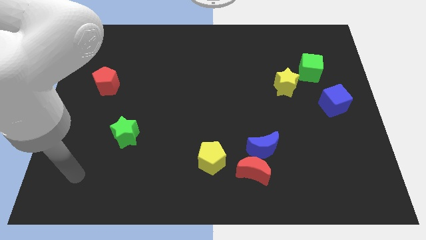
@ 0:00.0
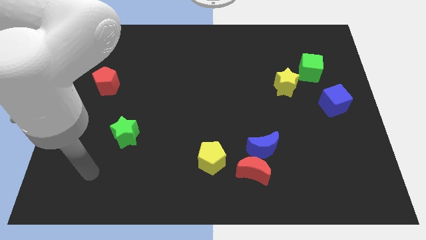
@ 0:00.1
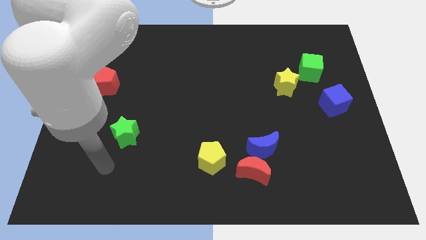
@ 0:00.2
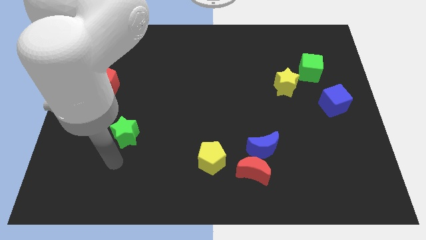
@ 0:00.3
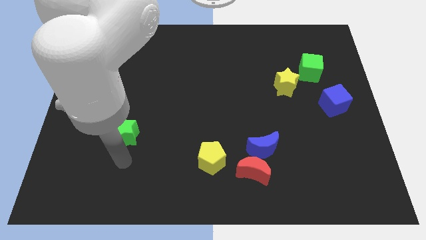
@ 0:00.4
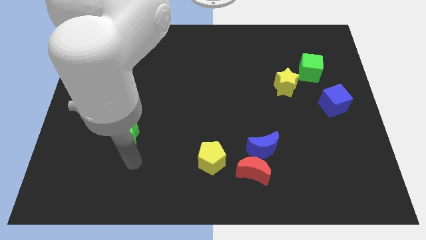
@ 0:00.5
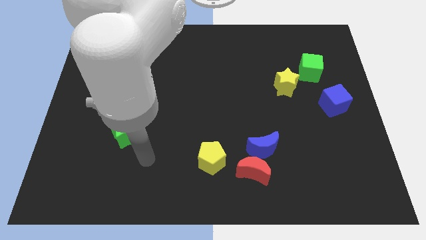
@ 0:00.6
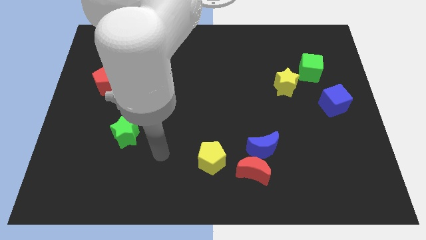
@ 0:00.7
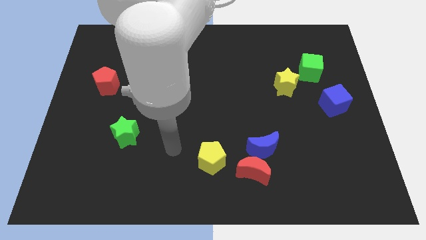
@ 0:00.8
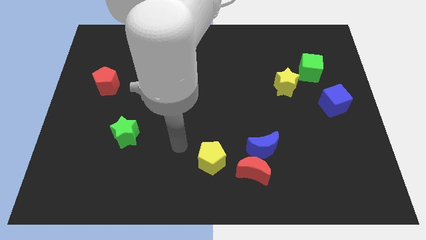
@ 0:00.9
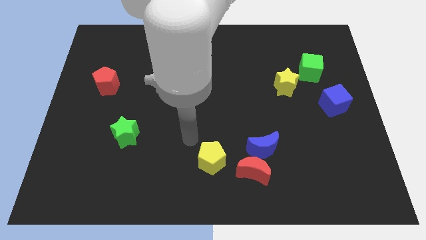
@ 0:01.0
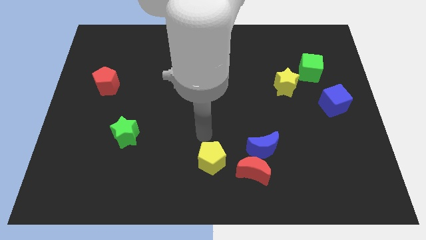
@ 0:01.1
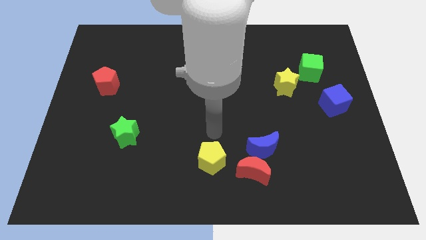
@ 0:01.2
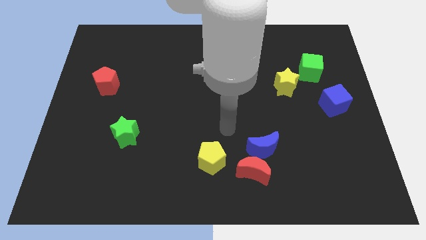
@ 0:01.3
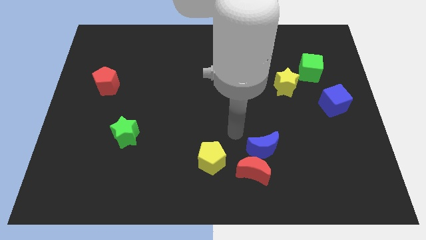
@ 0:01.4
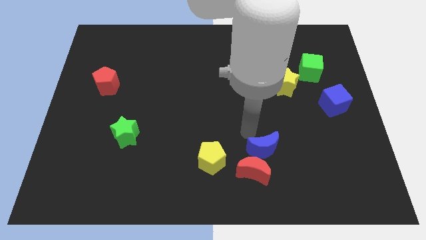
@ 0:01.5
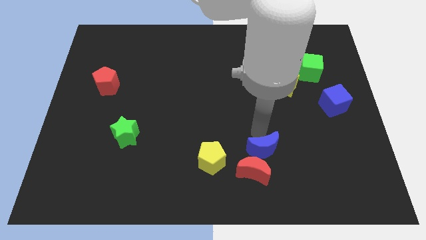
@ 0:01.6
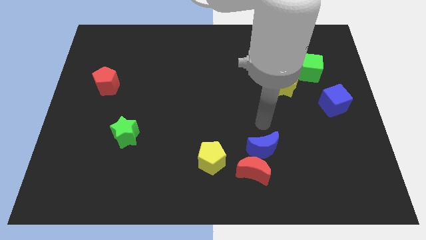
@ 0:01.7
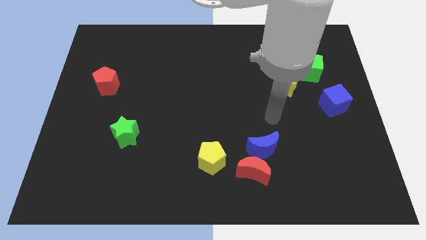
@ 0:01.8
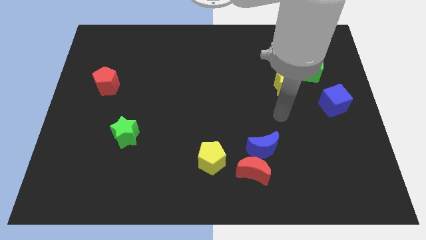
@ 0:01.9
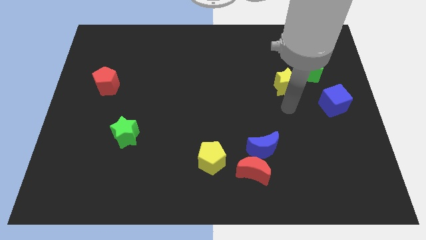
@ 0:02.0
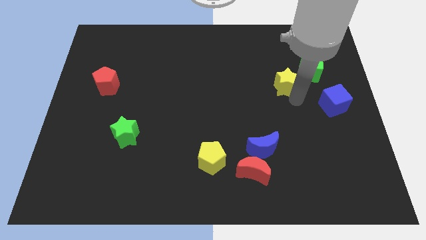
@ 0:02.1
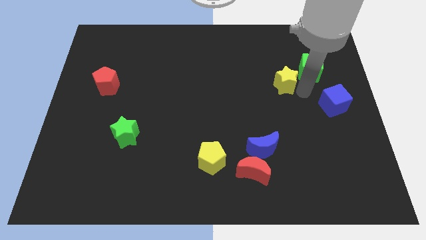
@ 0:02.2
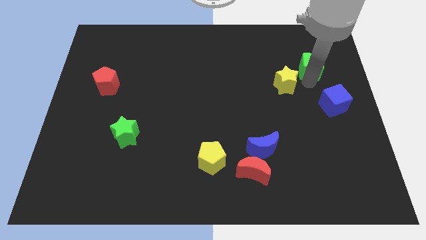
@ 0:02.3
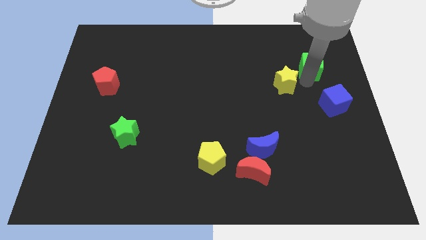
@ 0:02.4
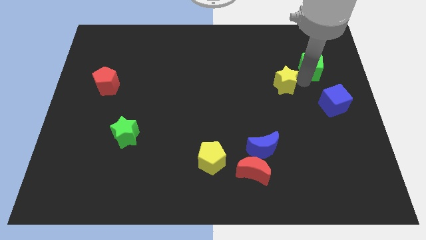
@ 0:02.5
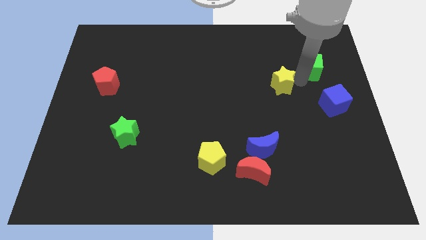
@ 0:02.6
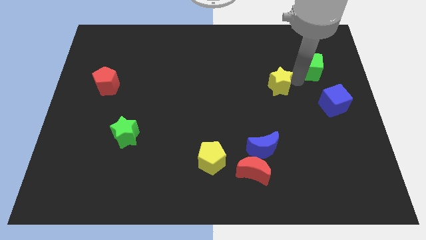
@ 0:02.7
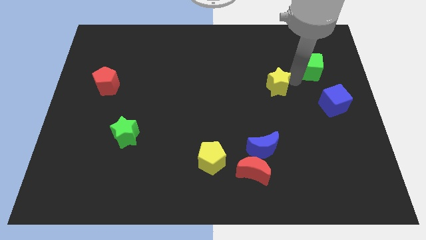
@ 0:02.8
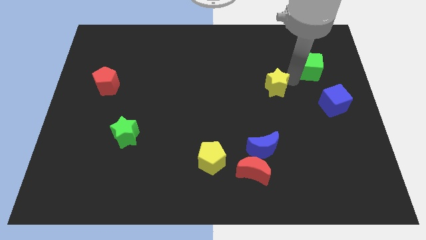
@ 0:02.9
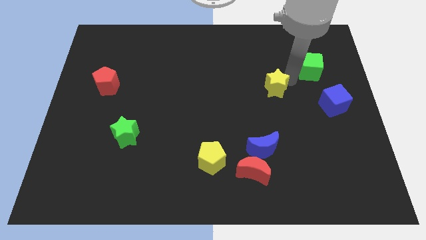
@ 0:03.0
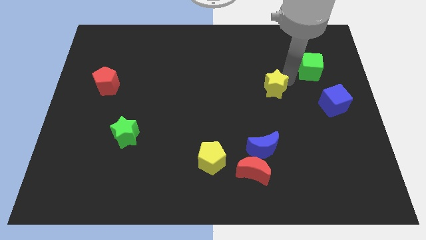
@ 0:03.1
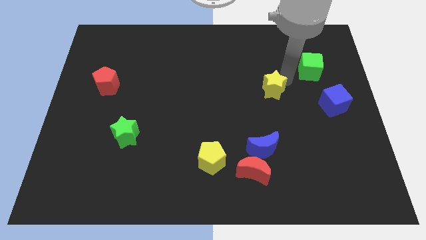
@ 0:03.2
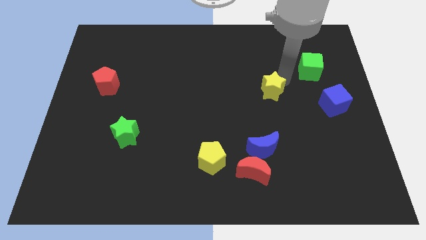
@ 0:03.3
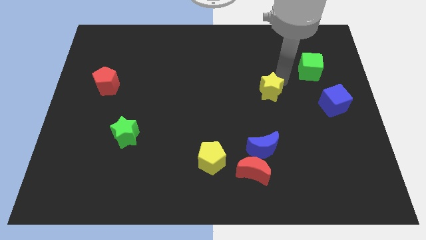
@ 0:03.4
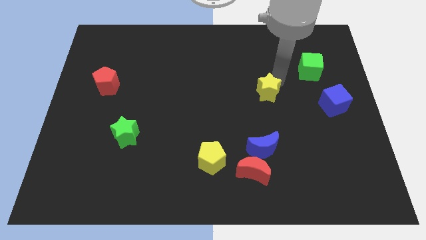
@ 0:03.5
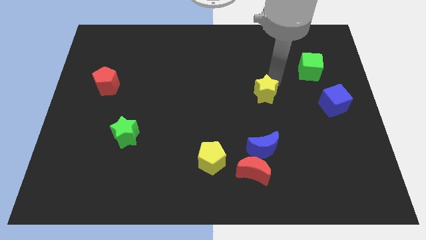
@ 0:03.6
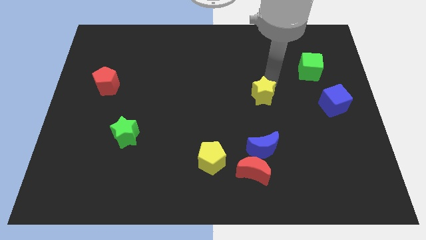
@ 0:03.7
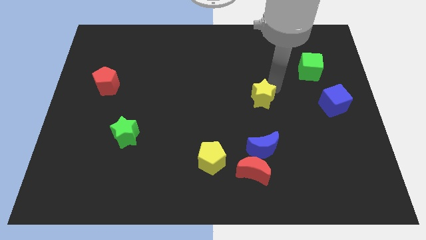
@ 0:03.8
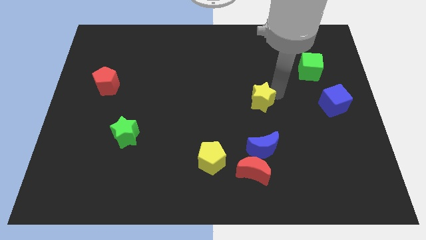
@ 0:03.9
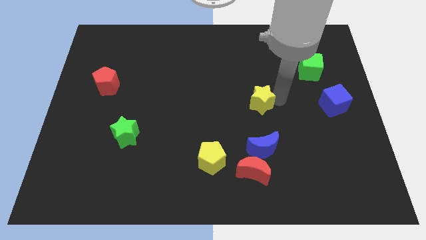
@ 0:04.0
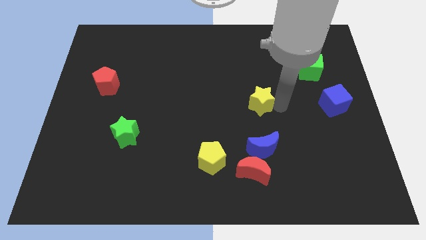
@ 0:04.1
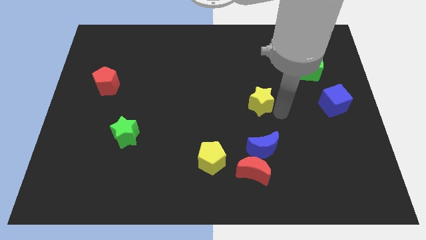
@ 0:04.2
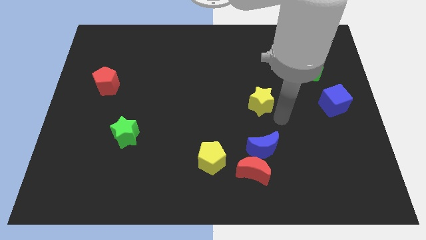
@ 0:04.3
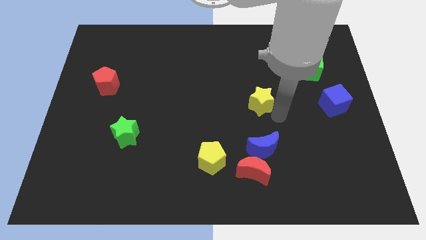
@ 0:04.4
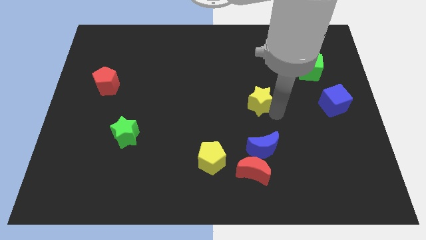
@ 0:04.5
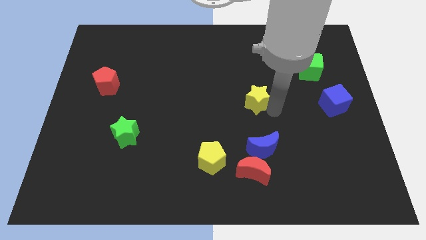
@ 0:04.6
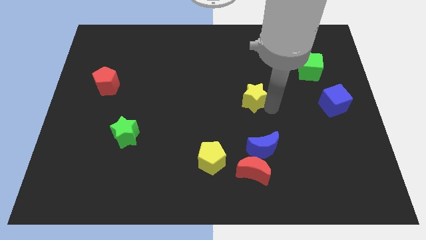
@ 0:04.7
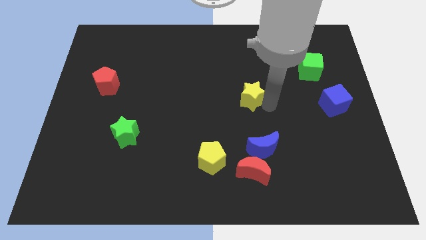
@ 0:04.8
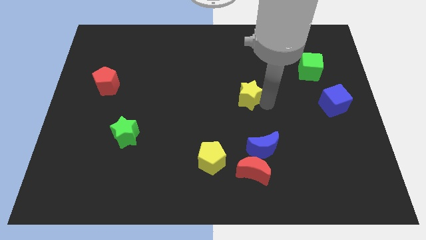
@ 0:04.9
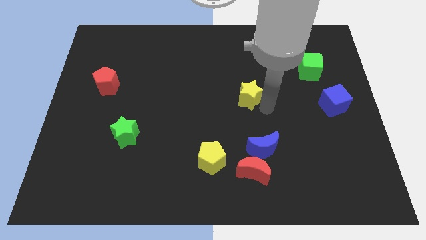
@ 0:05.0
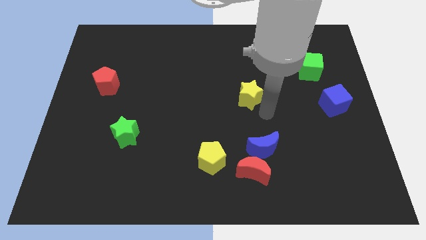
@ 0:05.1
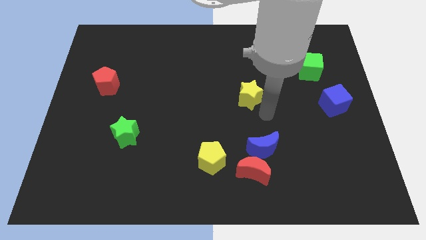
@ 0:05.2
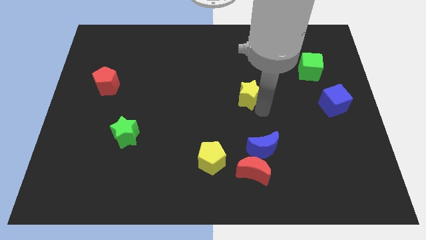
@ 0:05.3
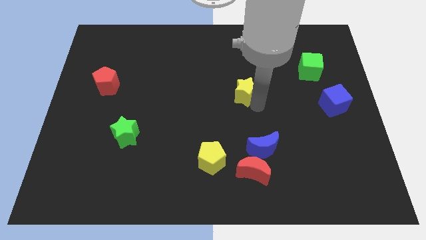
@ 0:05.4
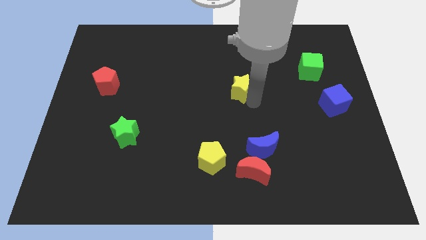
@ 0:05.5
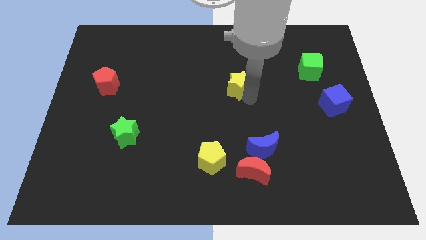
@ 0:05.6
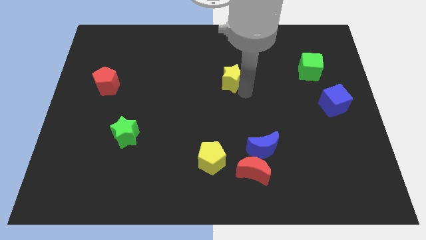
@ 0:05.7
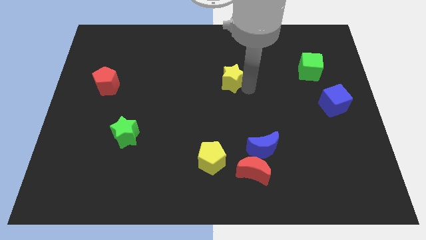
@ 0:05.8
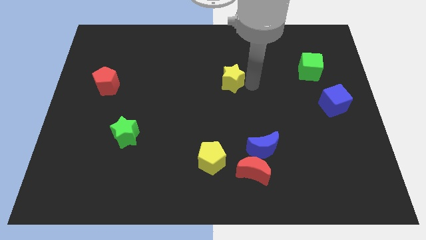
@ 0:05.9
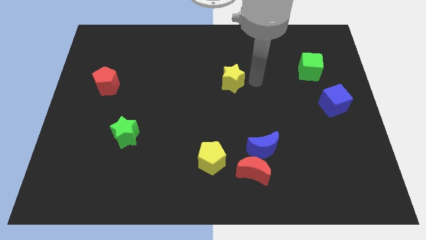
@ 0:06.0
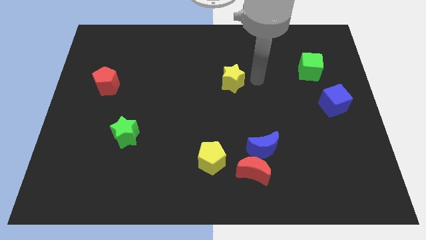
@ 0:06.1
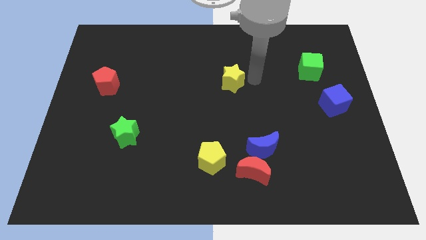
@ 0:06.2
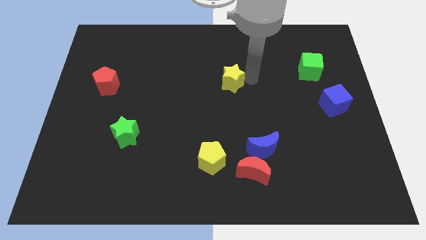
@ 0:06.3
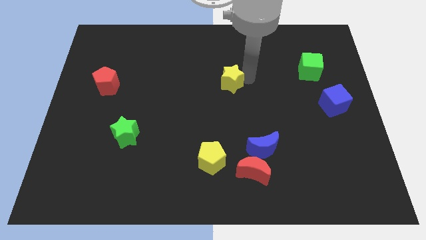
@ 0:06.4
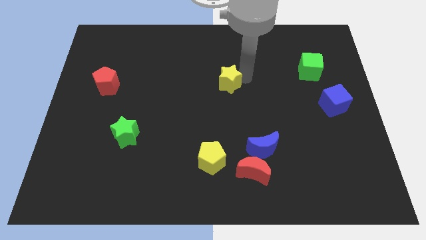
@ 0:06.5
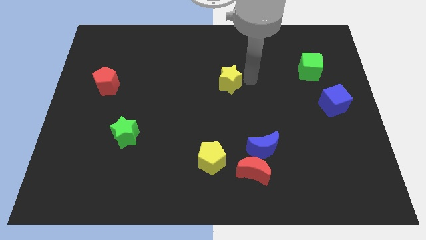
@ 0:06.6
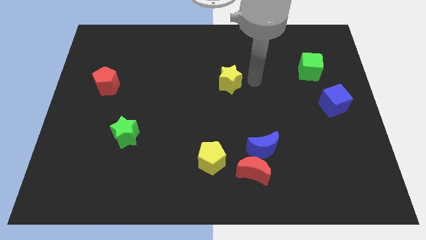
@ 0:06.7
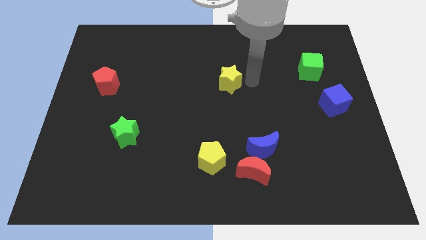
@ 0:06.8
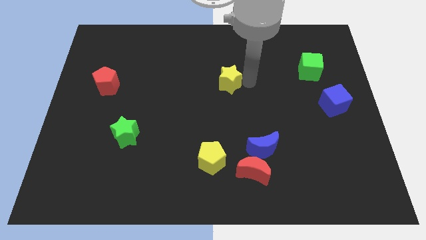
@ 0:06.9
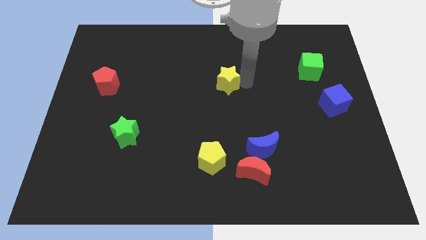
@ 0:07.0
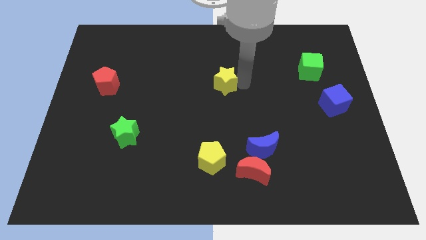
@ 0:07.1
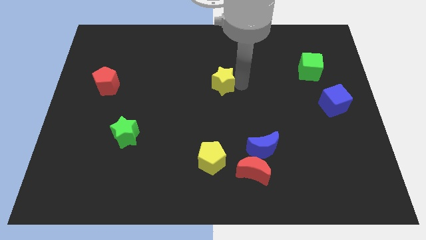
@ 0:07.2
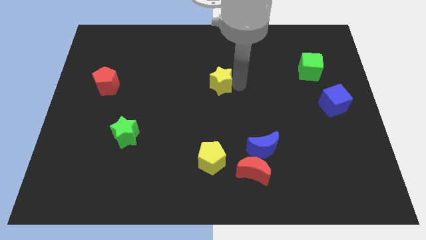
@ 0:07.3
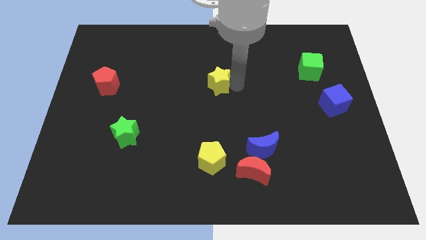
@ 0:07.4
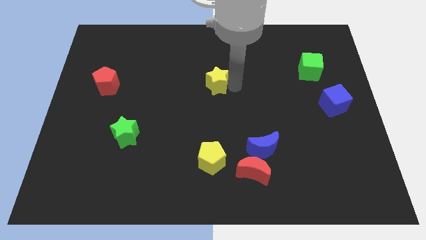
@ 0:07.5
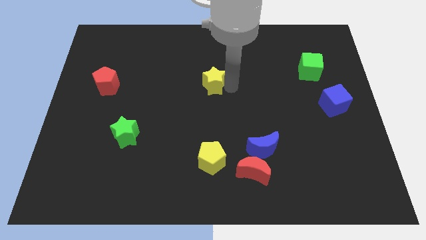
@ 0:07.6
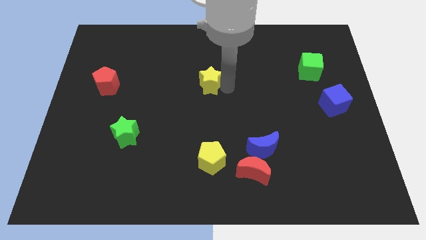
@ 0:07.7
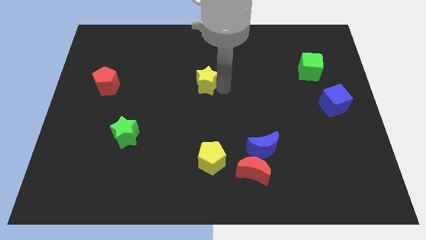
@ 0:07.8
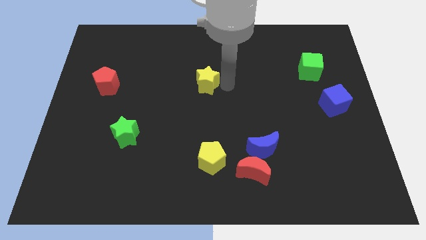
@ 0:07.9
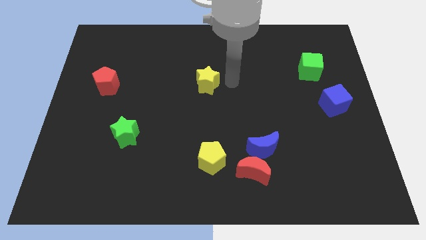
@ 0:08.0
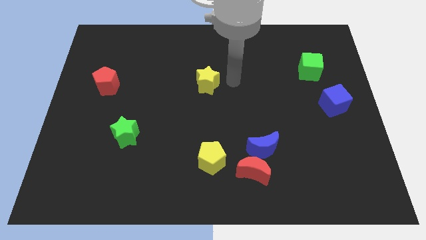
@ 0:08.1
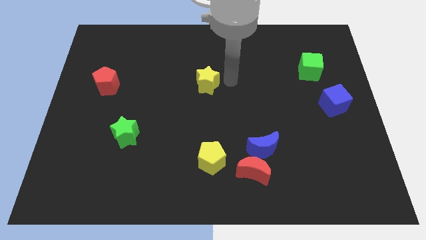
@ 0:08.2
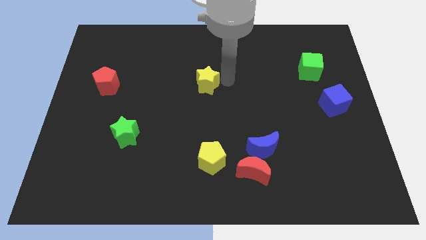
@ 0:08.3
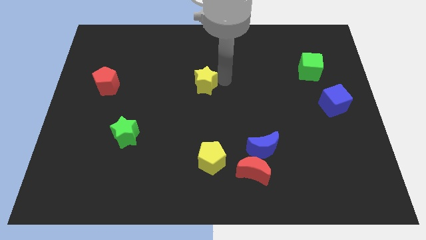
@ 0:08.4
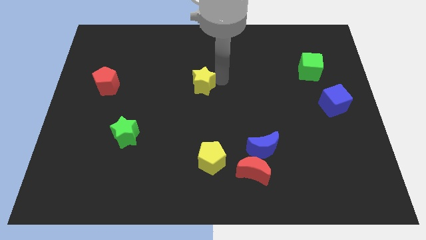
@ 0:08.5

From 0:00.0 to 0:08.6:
push the yellow star left
